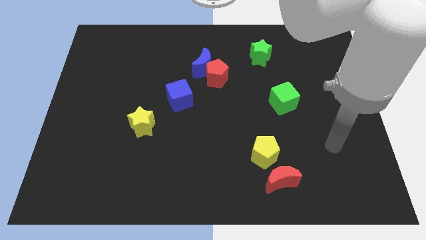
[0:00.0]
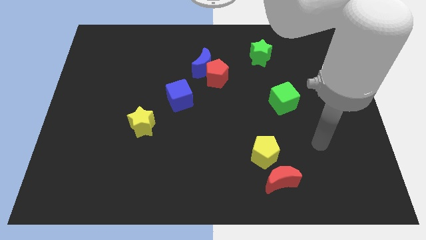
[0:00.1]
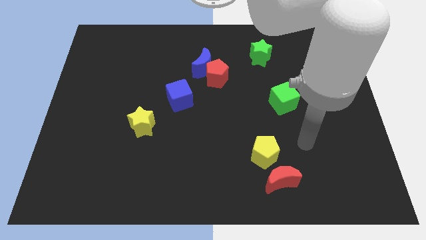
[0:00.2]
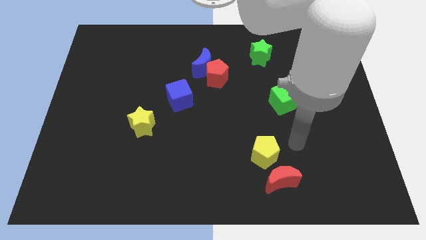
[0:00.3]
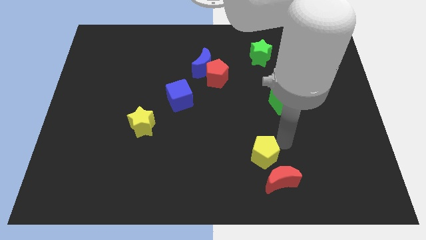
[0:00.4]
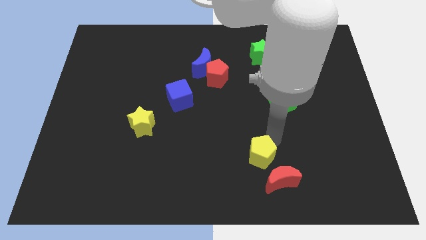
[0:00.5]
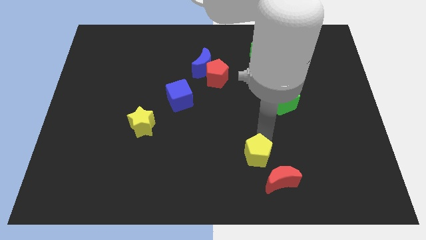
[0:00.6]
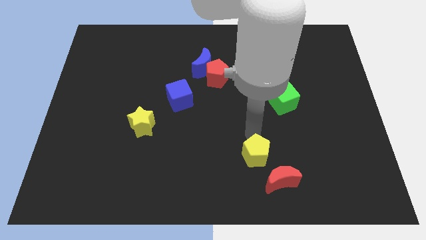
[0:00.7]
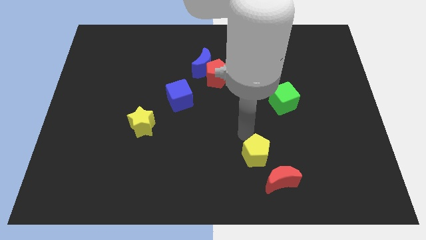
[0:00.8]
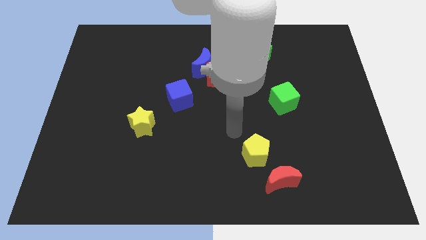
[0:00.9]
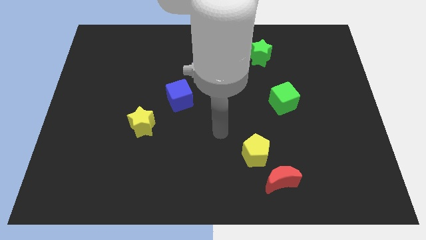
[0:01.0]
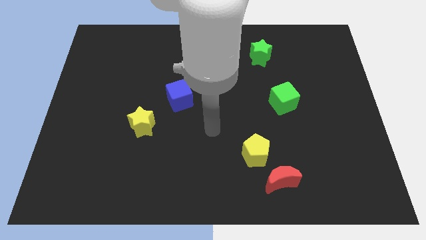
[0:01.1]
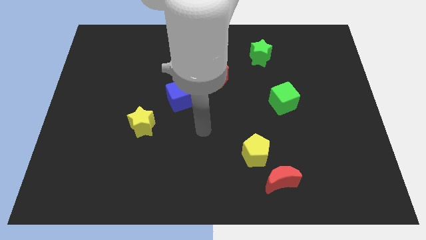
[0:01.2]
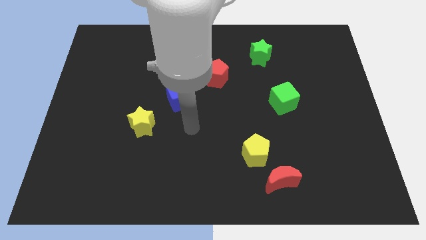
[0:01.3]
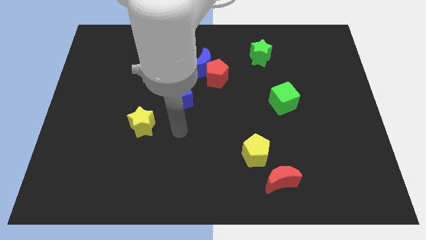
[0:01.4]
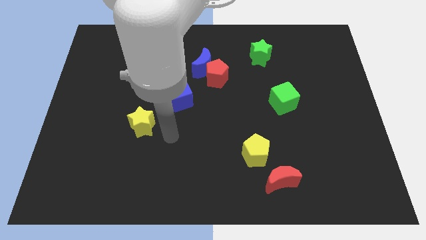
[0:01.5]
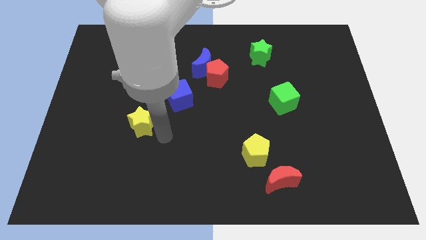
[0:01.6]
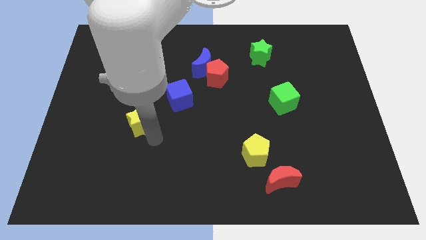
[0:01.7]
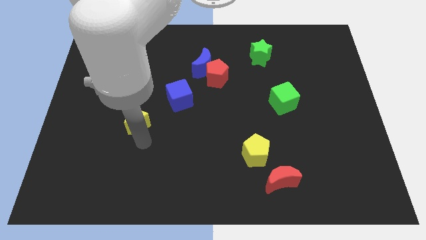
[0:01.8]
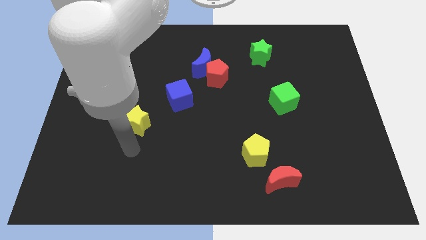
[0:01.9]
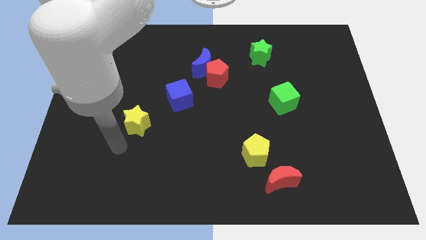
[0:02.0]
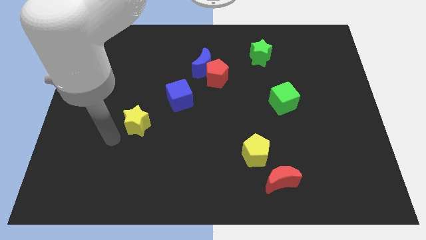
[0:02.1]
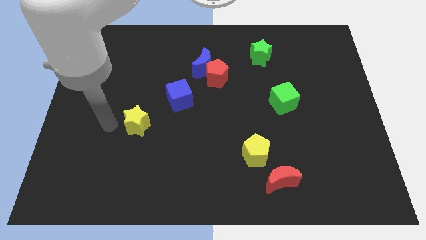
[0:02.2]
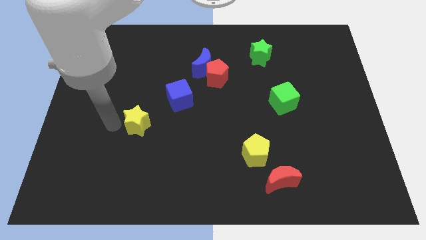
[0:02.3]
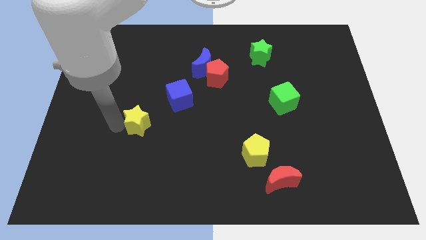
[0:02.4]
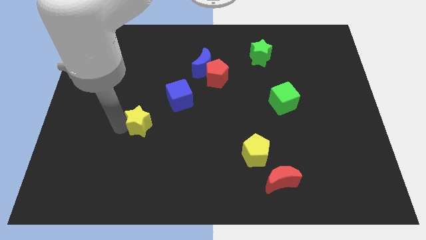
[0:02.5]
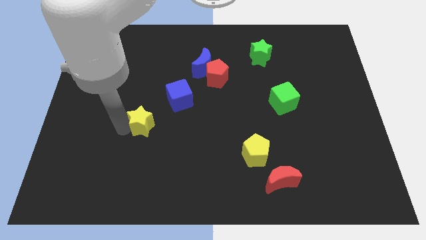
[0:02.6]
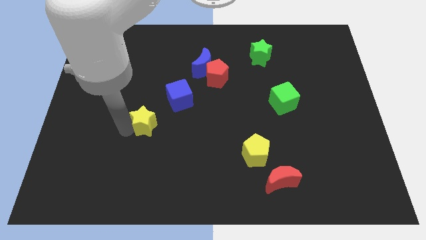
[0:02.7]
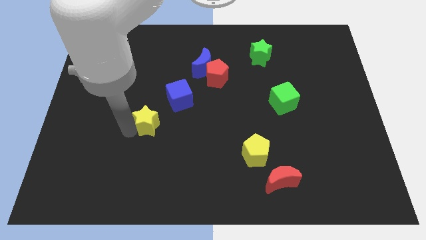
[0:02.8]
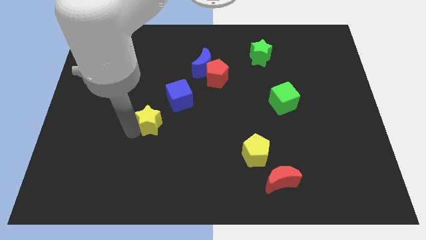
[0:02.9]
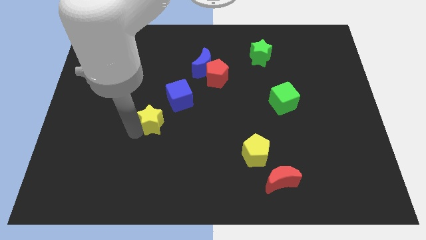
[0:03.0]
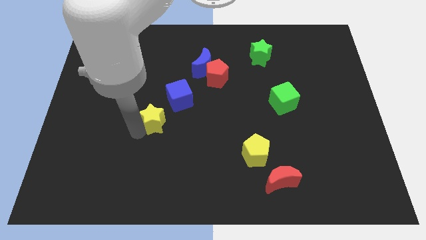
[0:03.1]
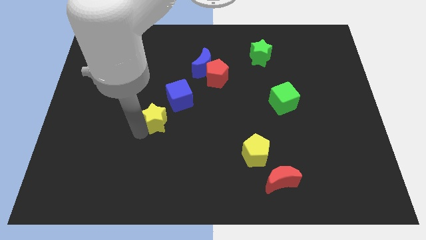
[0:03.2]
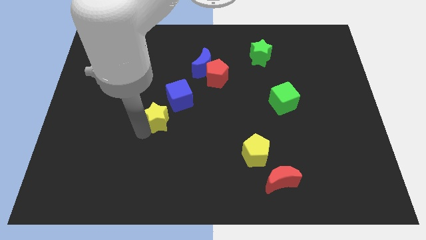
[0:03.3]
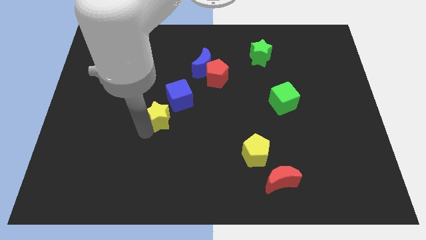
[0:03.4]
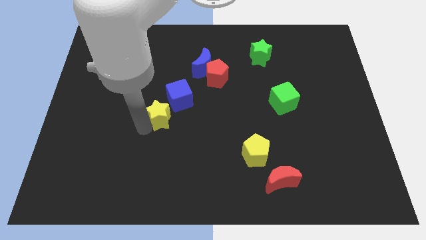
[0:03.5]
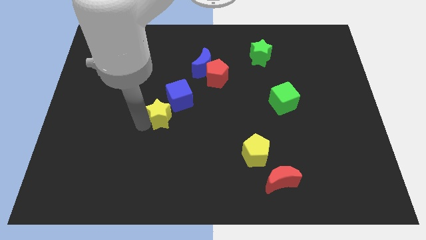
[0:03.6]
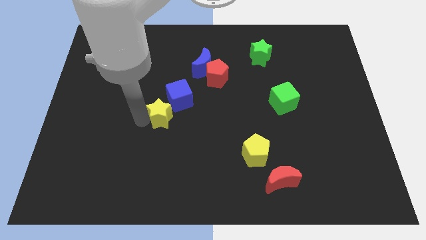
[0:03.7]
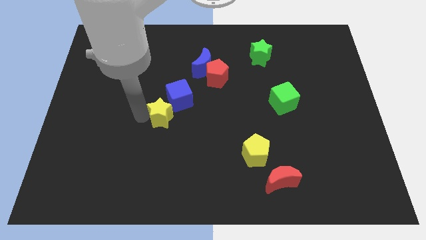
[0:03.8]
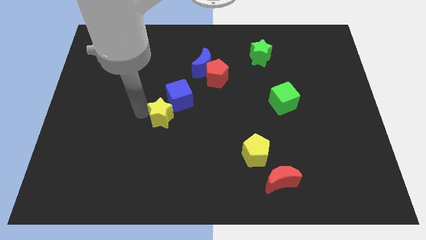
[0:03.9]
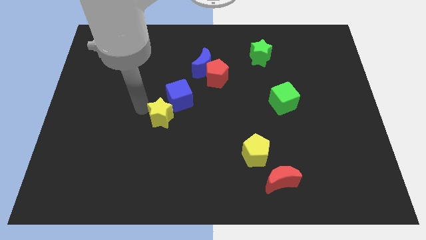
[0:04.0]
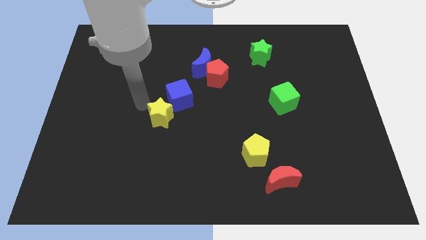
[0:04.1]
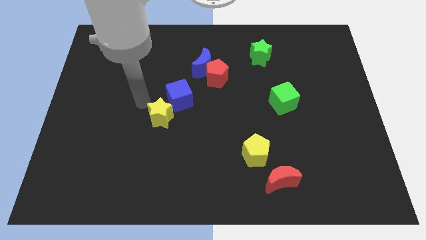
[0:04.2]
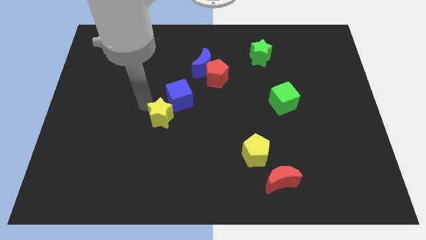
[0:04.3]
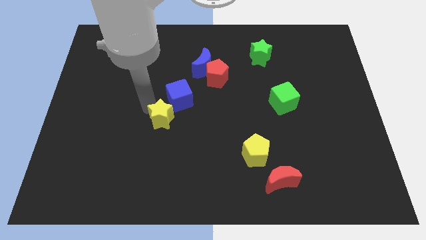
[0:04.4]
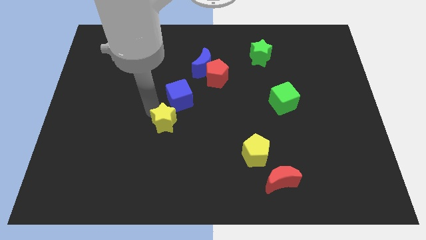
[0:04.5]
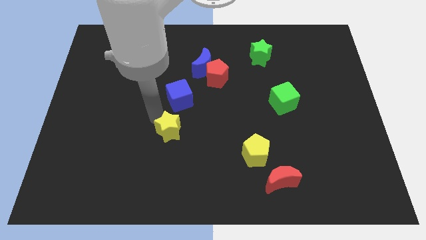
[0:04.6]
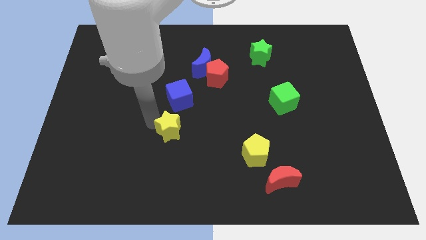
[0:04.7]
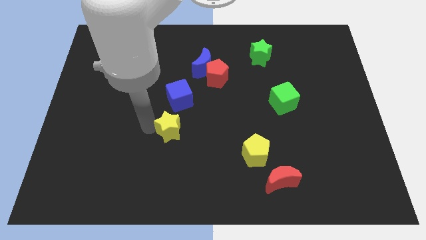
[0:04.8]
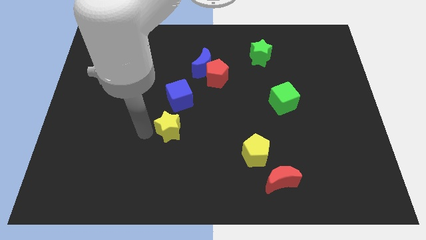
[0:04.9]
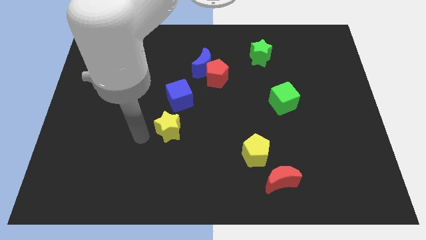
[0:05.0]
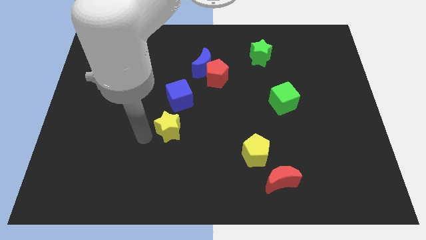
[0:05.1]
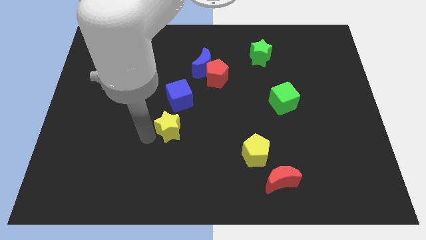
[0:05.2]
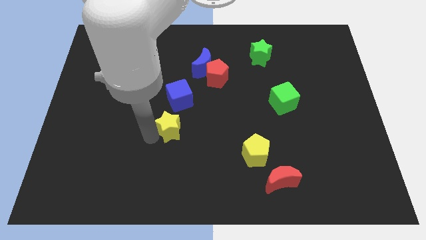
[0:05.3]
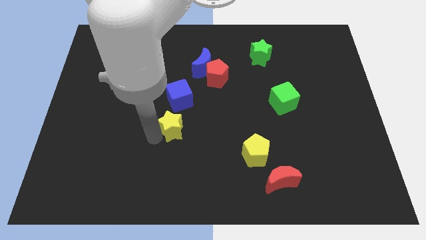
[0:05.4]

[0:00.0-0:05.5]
slightly move the yellow star right

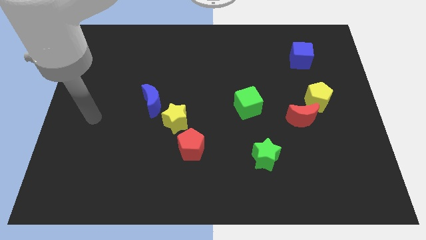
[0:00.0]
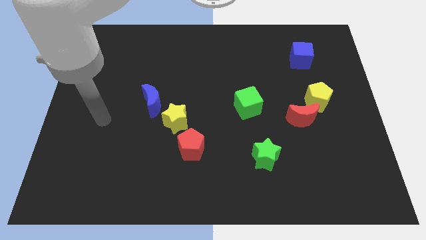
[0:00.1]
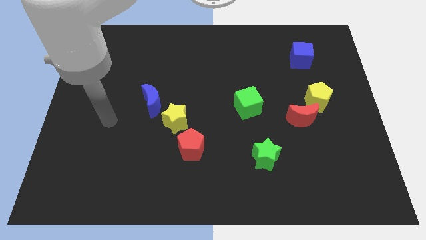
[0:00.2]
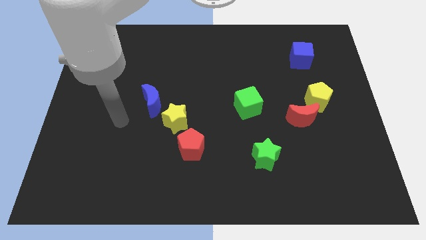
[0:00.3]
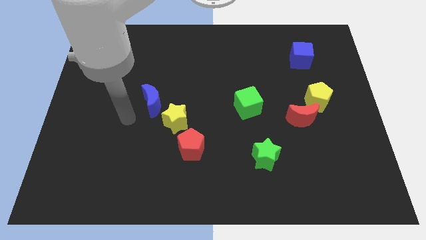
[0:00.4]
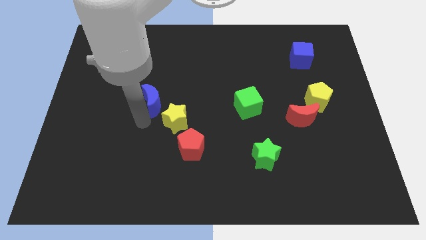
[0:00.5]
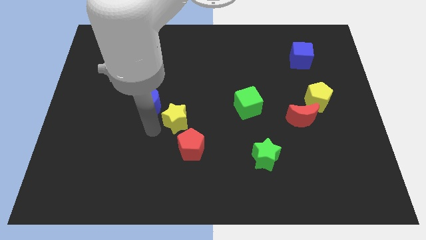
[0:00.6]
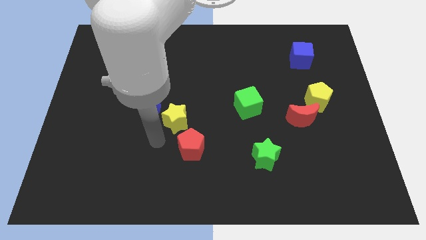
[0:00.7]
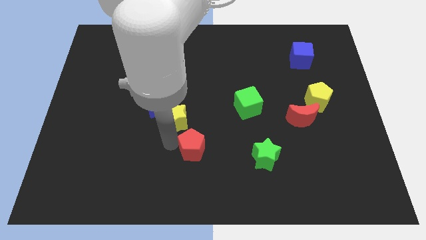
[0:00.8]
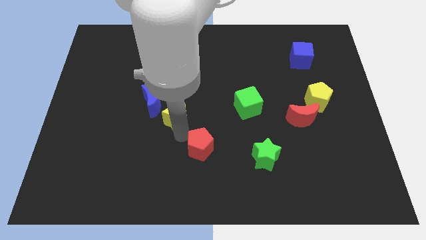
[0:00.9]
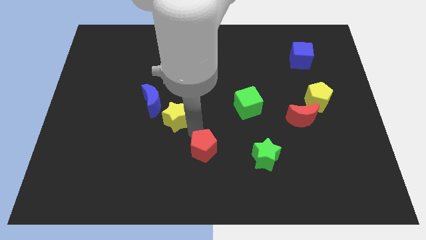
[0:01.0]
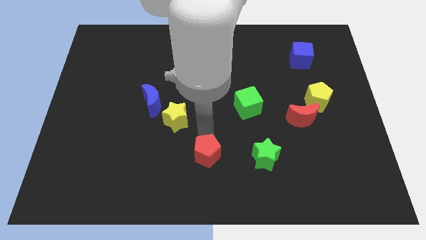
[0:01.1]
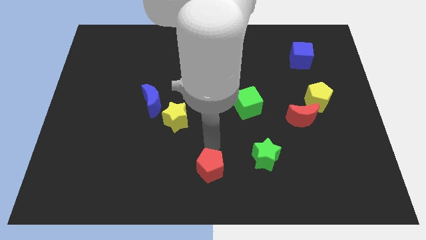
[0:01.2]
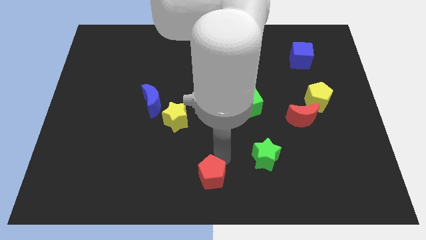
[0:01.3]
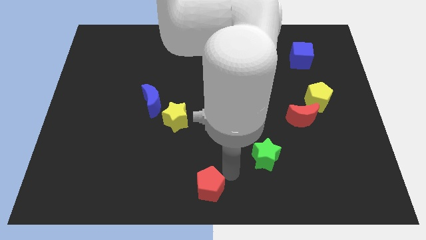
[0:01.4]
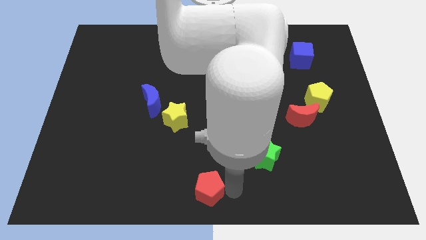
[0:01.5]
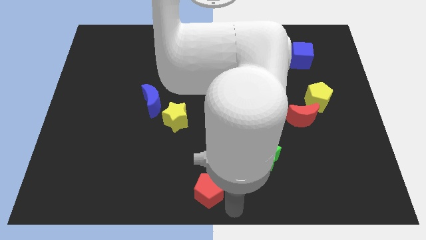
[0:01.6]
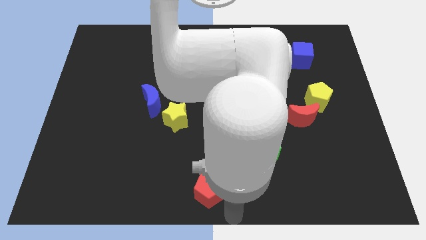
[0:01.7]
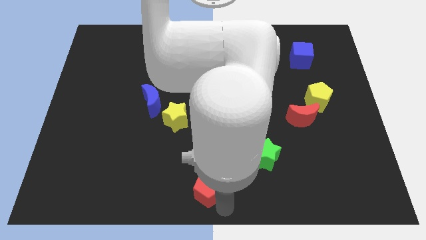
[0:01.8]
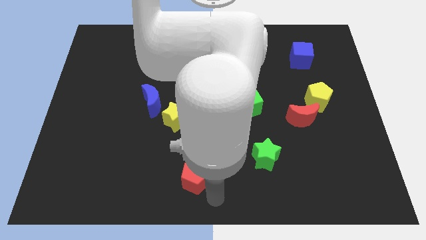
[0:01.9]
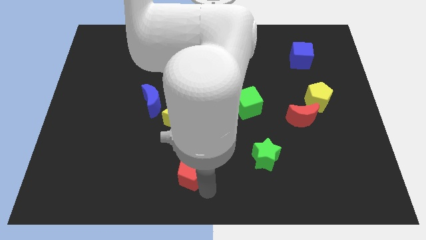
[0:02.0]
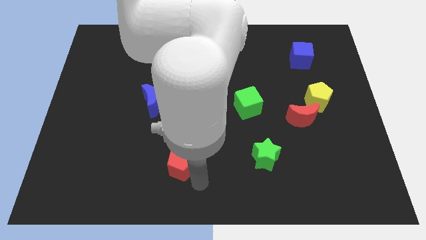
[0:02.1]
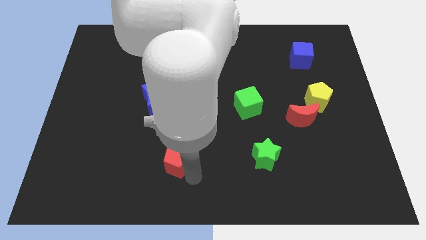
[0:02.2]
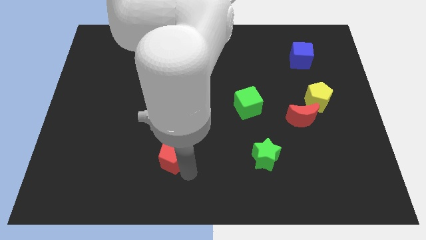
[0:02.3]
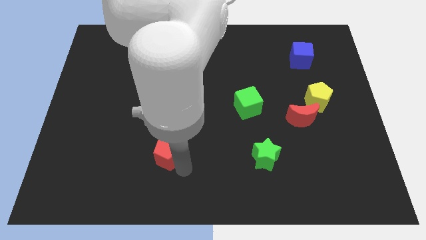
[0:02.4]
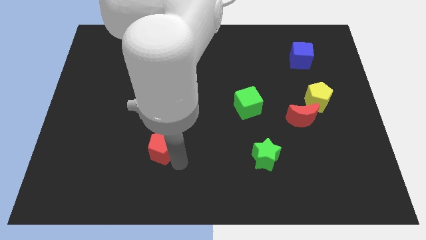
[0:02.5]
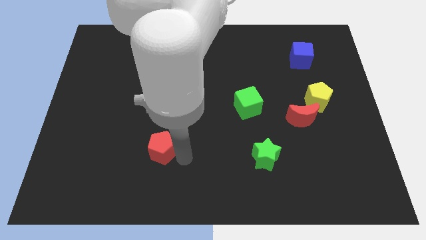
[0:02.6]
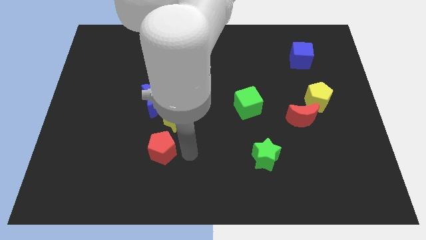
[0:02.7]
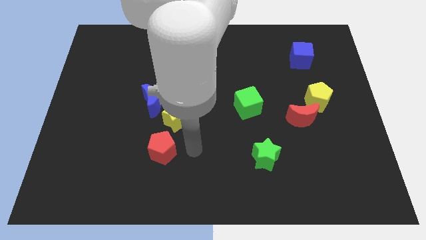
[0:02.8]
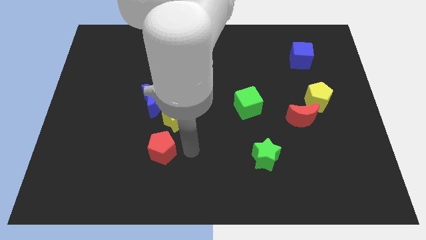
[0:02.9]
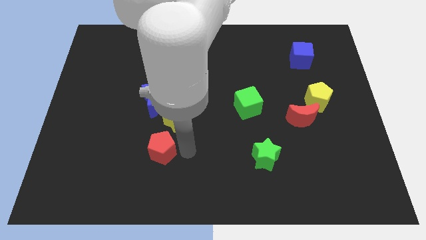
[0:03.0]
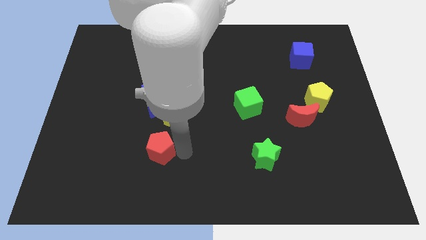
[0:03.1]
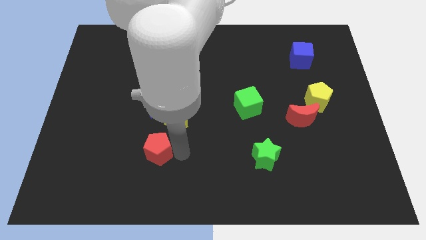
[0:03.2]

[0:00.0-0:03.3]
move the red pentagon left a little bit
